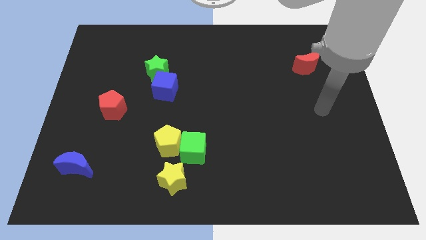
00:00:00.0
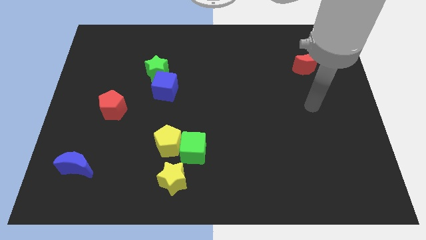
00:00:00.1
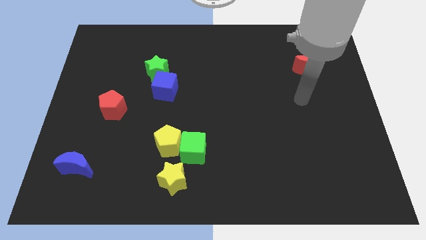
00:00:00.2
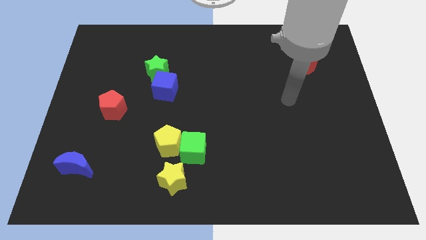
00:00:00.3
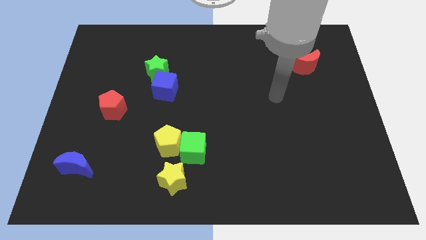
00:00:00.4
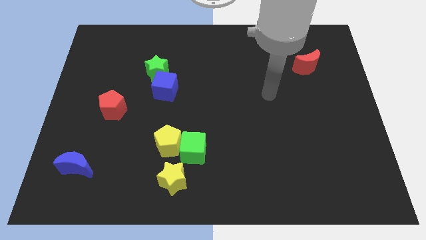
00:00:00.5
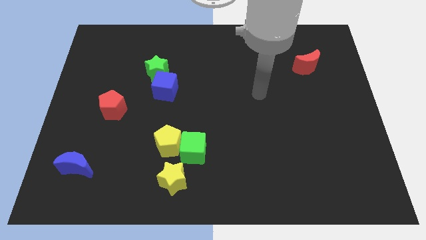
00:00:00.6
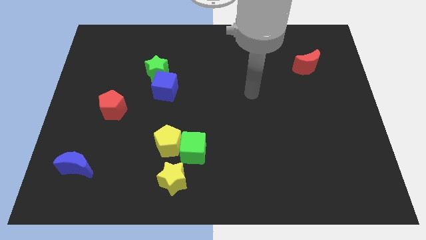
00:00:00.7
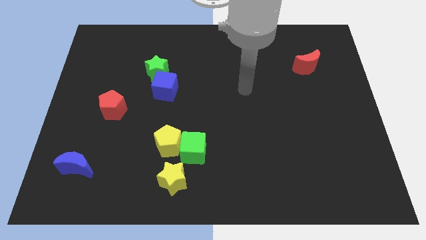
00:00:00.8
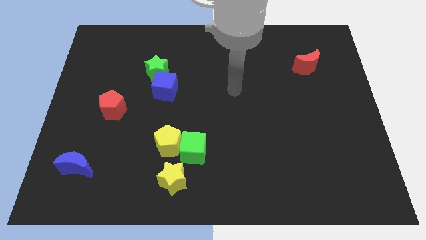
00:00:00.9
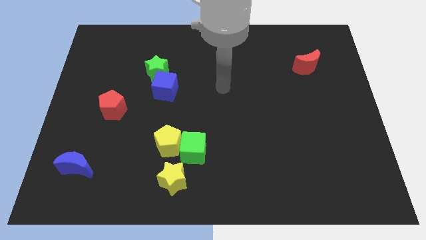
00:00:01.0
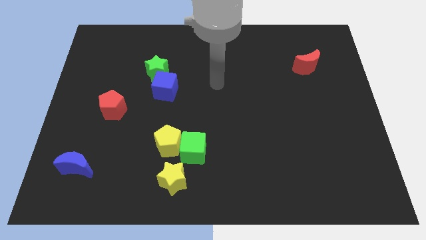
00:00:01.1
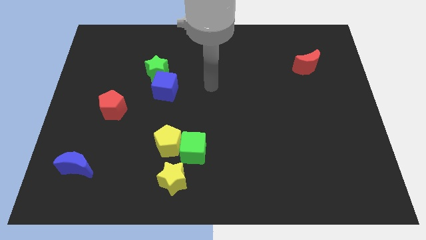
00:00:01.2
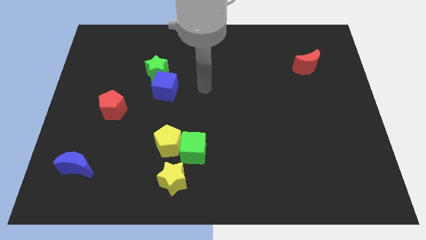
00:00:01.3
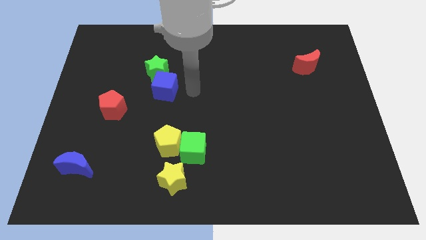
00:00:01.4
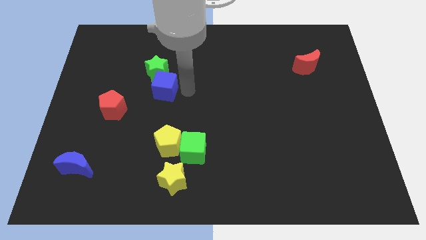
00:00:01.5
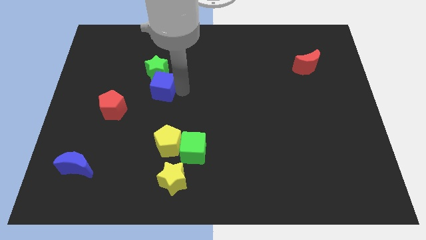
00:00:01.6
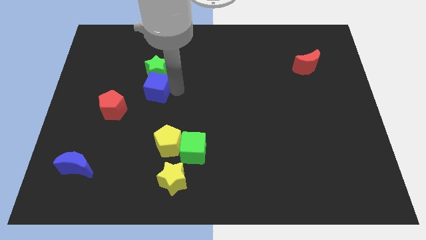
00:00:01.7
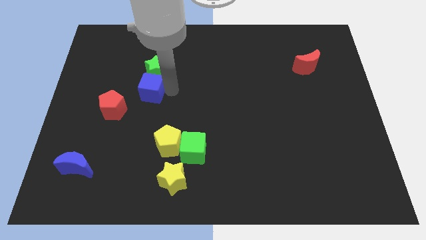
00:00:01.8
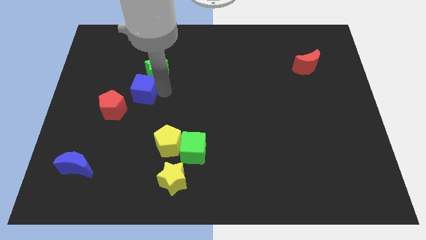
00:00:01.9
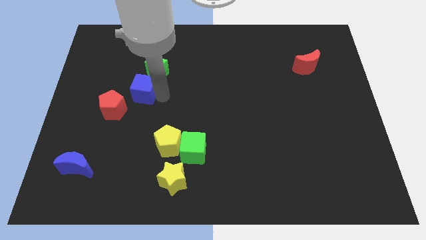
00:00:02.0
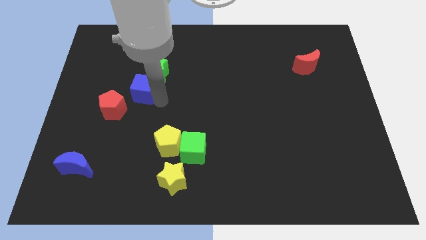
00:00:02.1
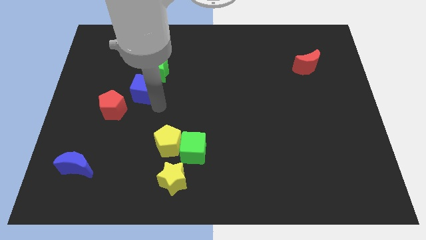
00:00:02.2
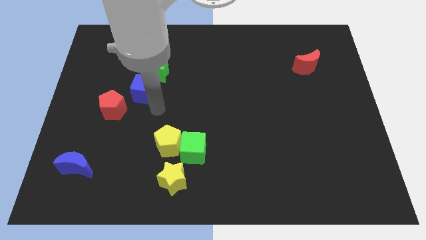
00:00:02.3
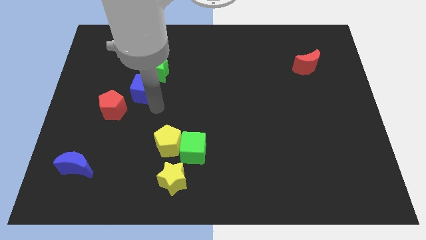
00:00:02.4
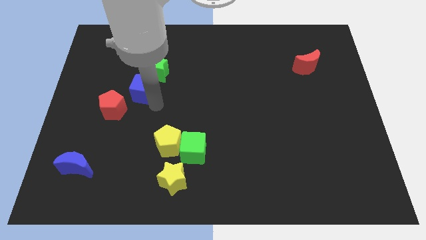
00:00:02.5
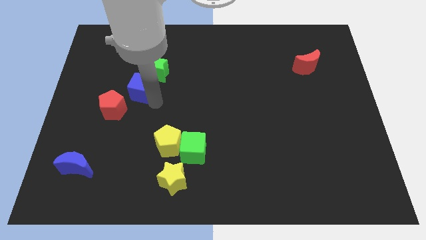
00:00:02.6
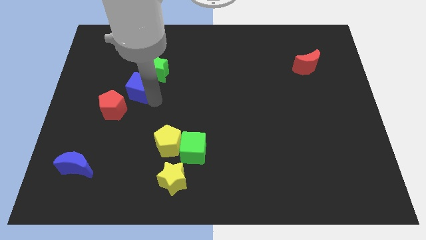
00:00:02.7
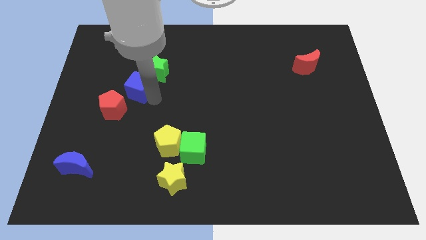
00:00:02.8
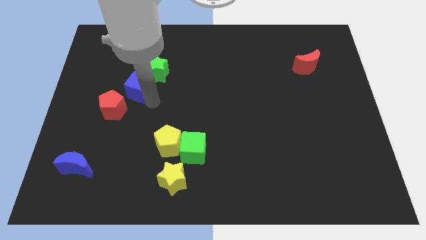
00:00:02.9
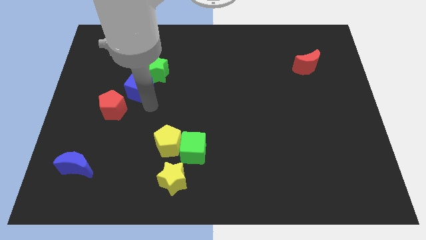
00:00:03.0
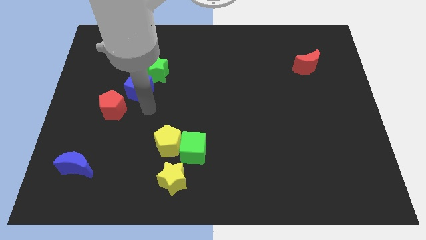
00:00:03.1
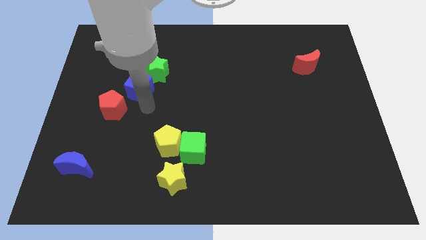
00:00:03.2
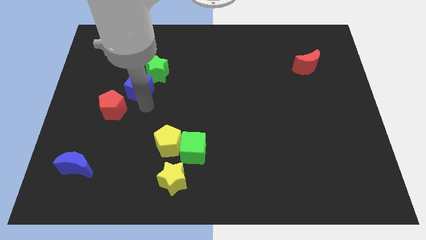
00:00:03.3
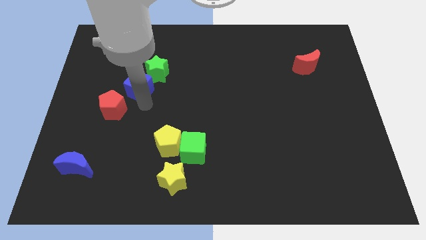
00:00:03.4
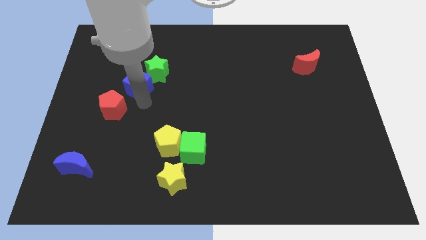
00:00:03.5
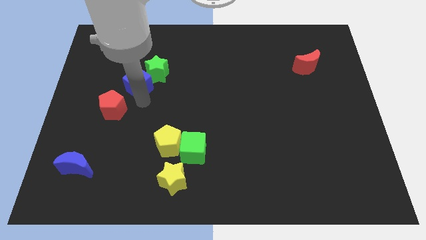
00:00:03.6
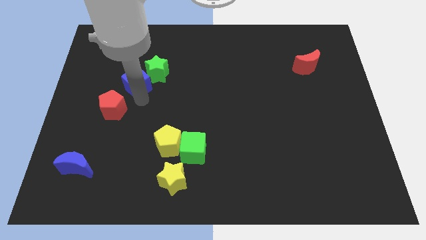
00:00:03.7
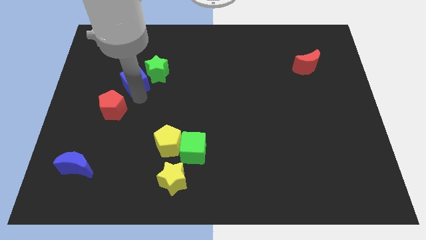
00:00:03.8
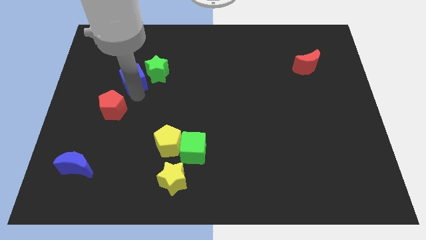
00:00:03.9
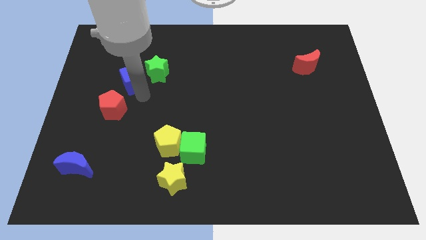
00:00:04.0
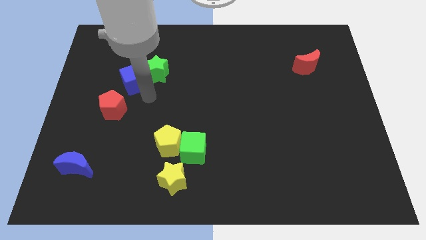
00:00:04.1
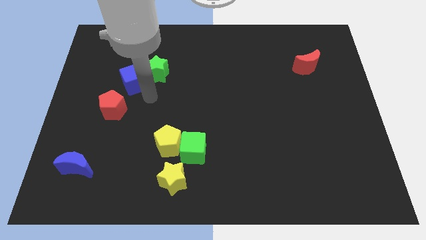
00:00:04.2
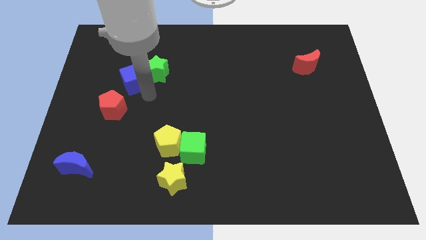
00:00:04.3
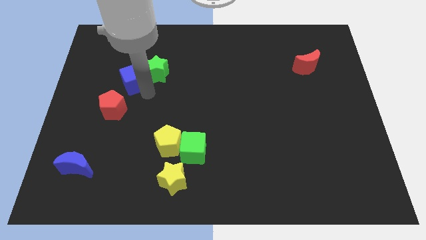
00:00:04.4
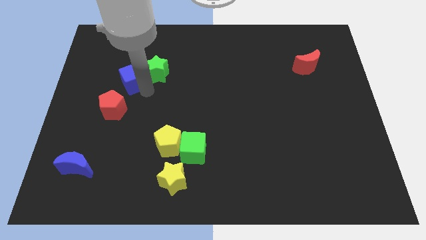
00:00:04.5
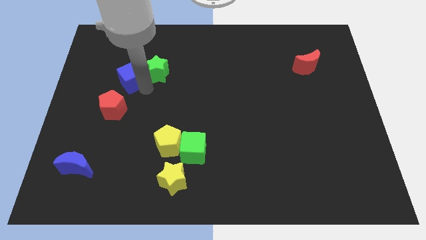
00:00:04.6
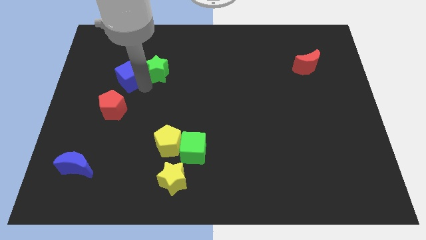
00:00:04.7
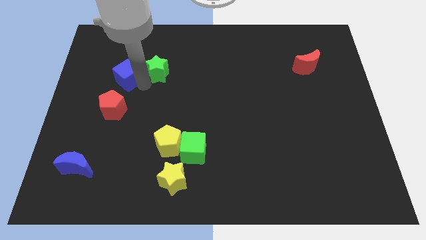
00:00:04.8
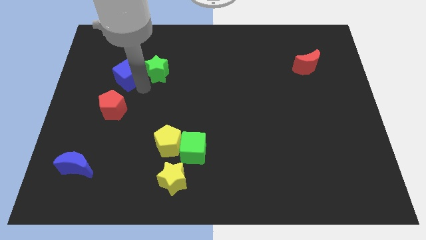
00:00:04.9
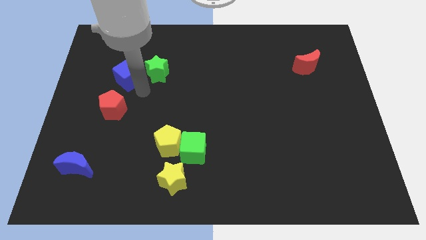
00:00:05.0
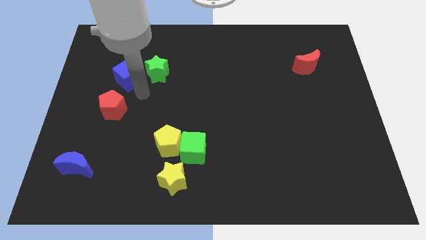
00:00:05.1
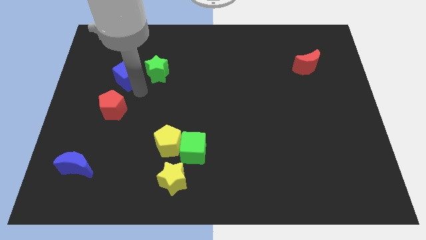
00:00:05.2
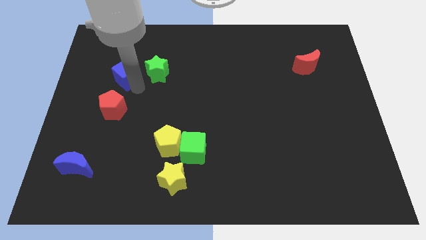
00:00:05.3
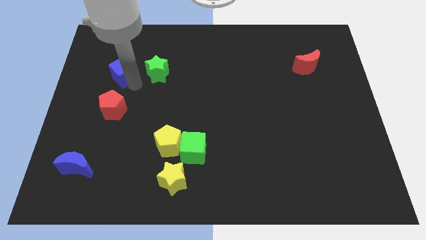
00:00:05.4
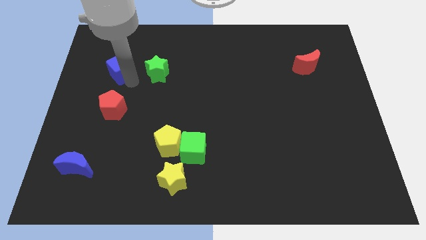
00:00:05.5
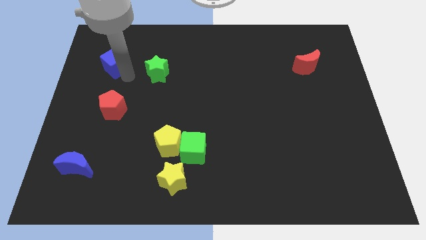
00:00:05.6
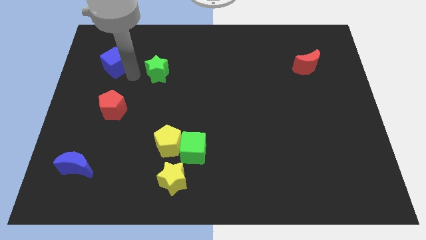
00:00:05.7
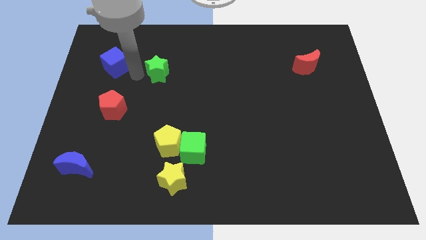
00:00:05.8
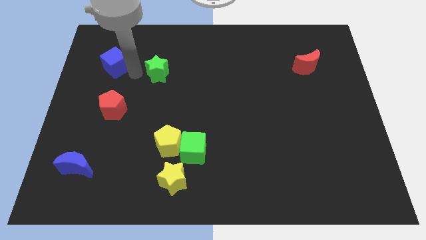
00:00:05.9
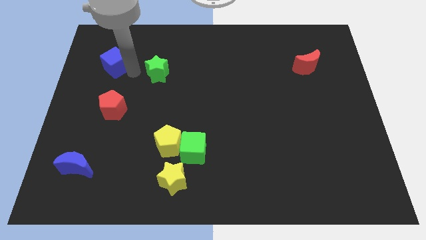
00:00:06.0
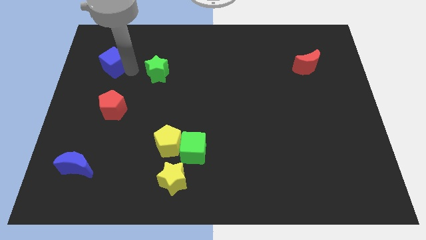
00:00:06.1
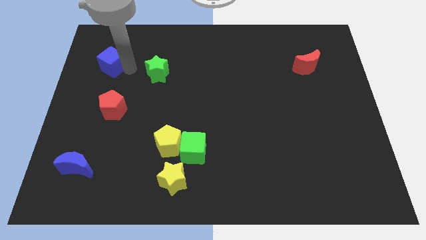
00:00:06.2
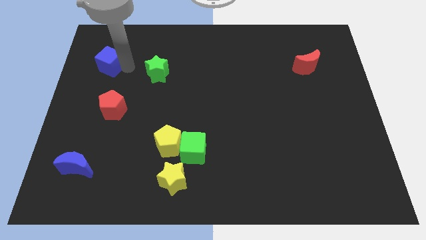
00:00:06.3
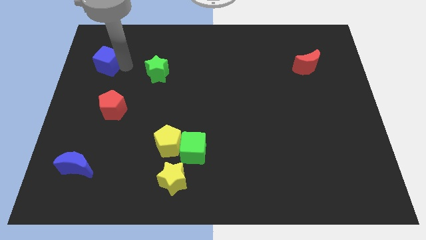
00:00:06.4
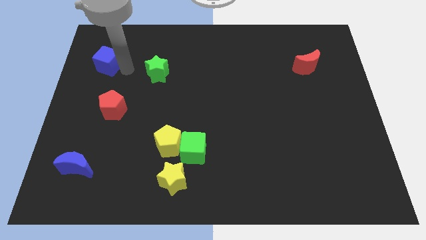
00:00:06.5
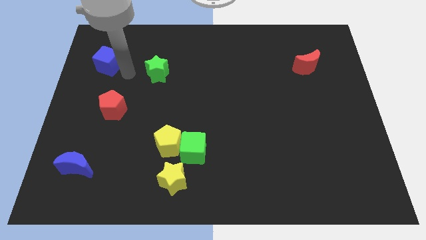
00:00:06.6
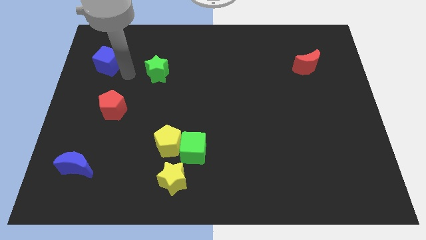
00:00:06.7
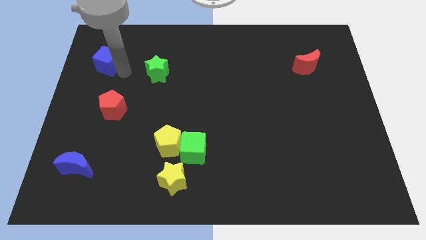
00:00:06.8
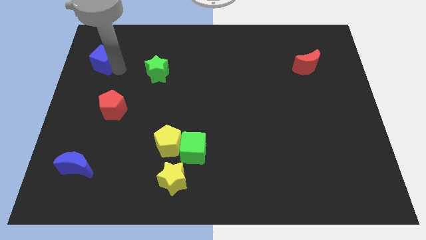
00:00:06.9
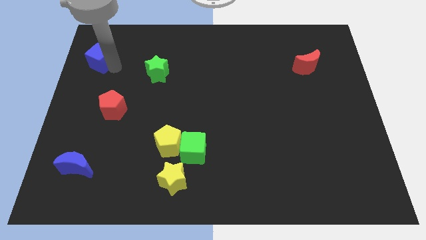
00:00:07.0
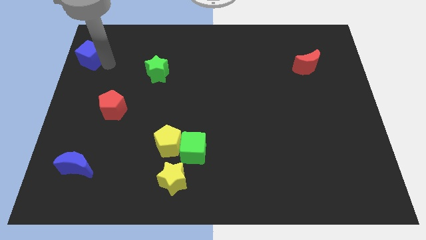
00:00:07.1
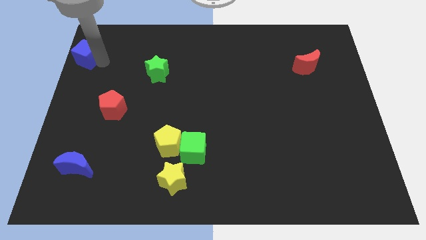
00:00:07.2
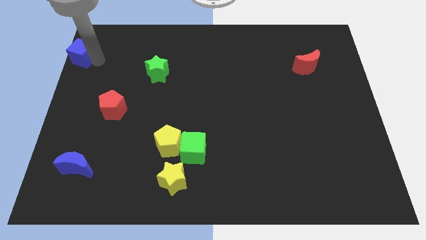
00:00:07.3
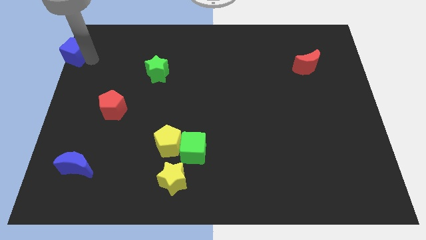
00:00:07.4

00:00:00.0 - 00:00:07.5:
move the blue cube to the top left corner
